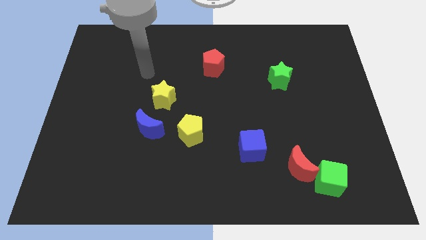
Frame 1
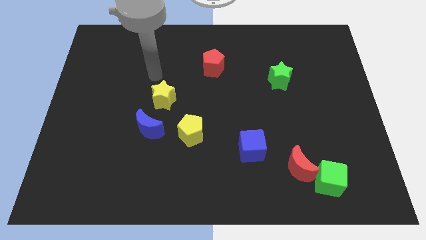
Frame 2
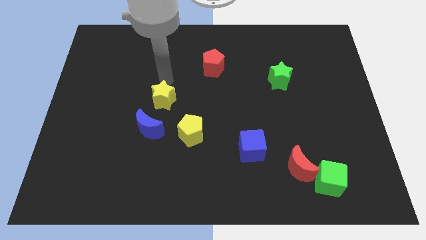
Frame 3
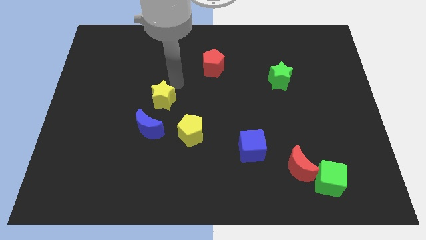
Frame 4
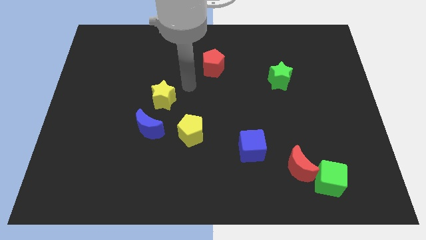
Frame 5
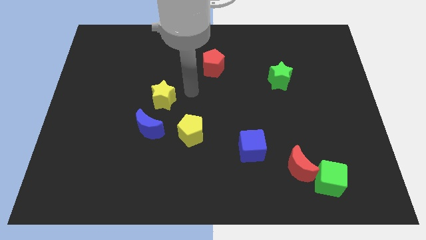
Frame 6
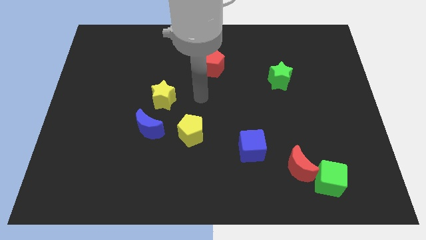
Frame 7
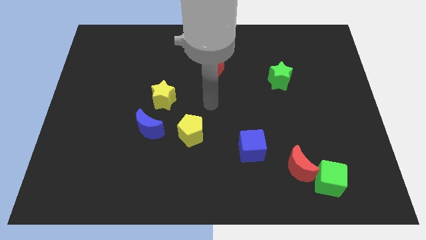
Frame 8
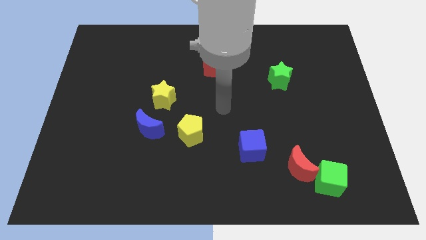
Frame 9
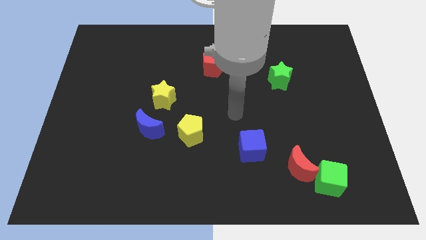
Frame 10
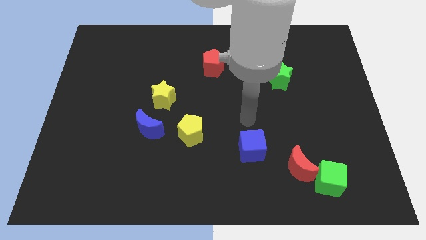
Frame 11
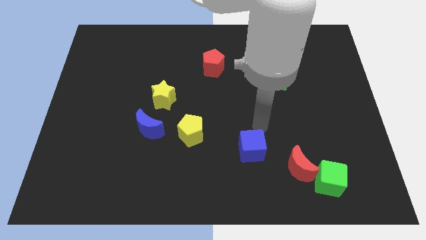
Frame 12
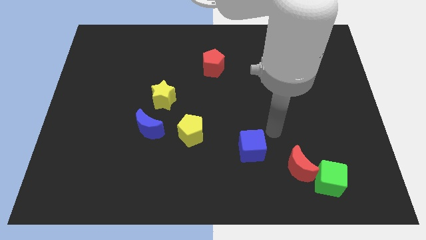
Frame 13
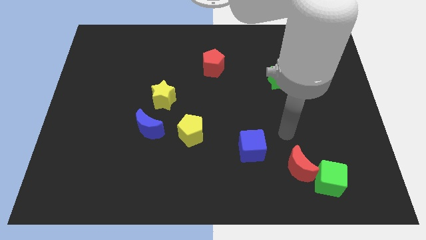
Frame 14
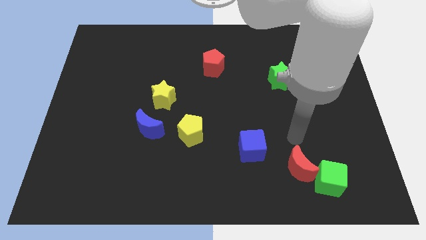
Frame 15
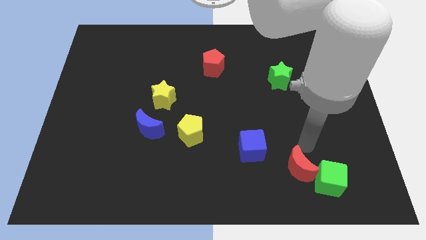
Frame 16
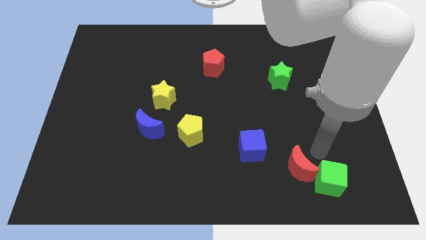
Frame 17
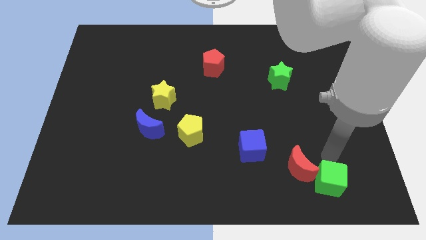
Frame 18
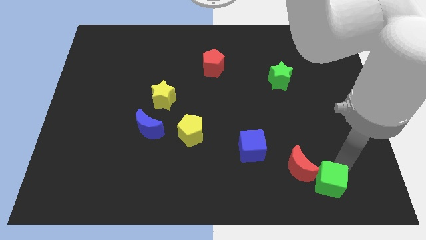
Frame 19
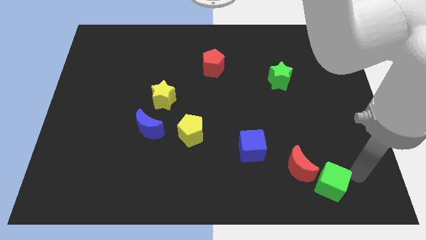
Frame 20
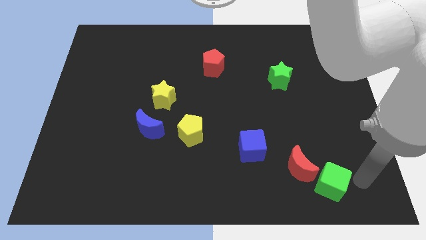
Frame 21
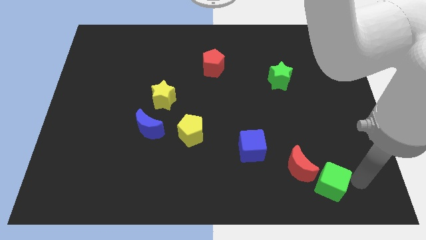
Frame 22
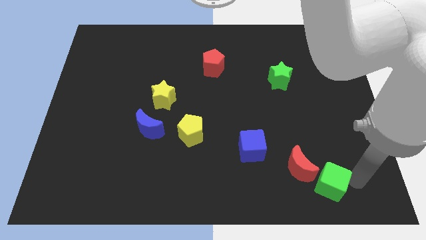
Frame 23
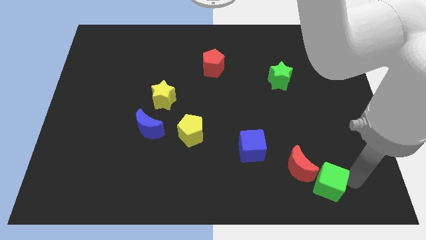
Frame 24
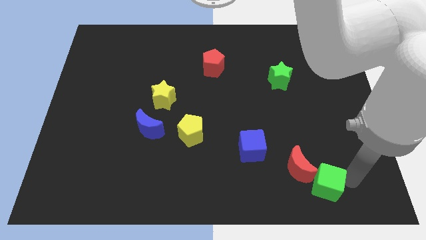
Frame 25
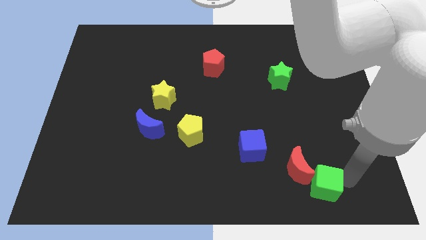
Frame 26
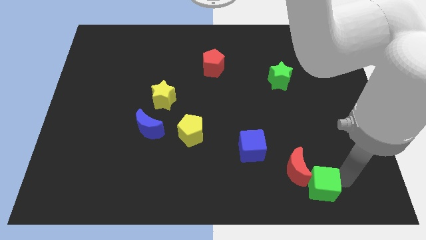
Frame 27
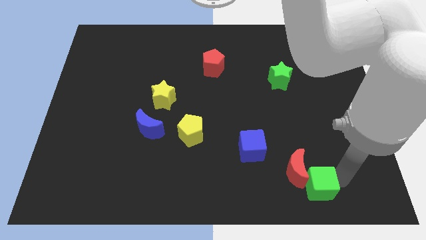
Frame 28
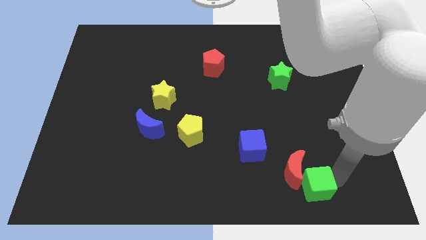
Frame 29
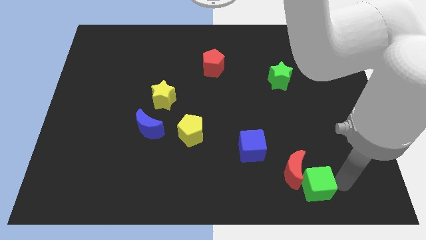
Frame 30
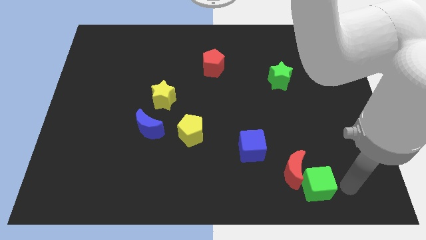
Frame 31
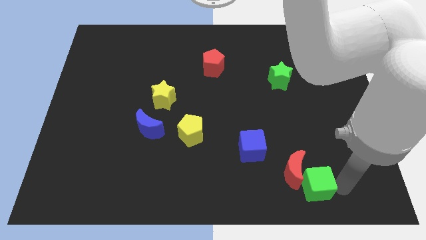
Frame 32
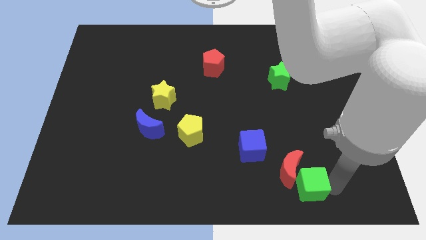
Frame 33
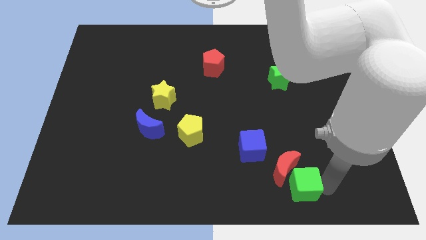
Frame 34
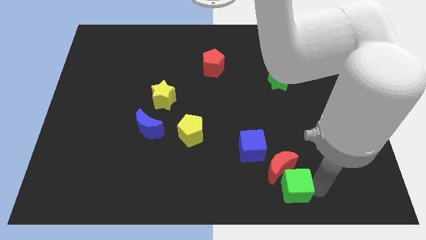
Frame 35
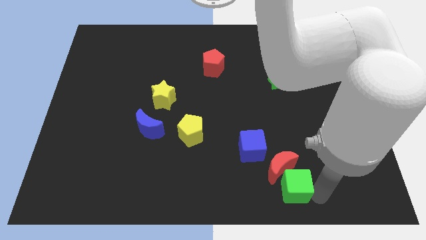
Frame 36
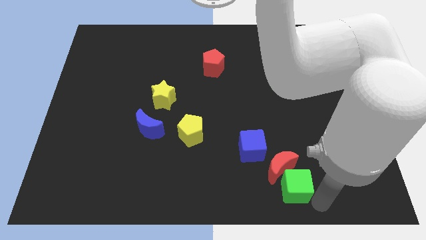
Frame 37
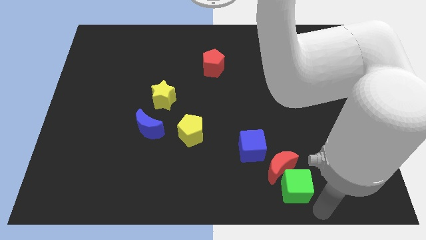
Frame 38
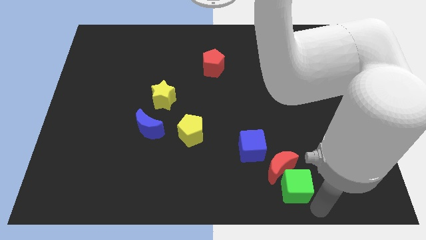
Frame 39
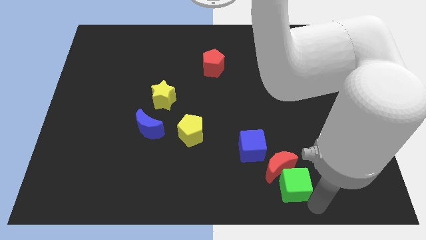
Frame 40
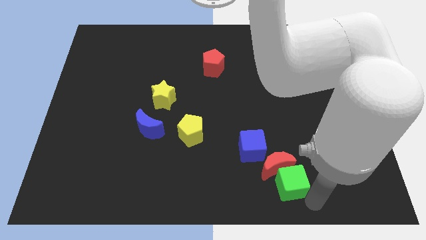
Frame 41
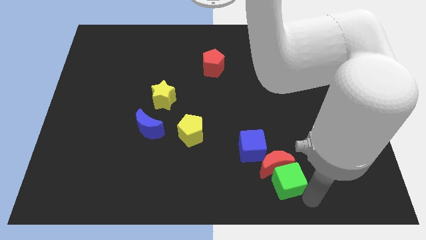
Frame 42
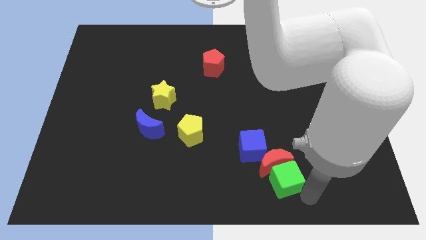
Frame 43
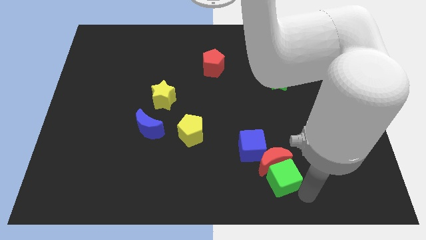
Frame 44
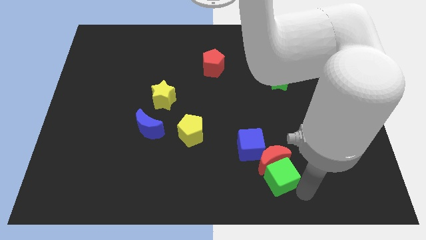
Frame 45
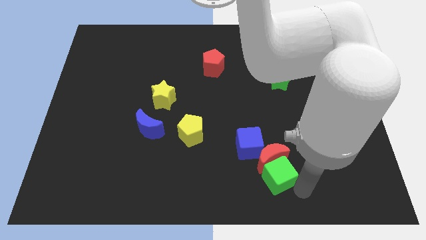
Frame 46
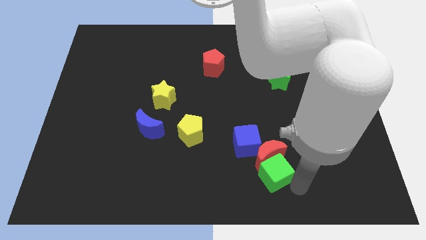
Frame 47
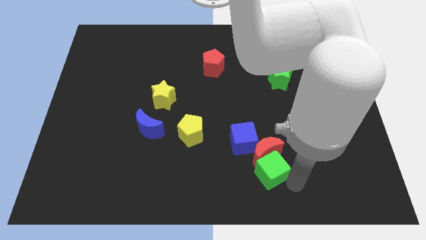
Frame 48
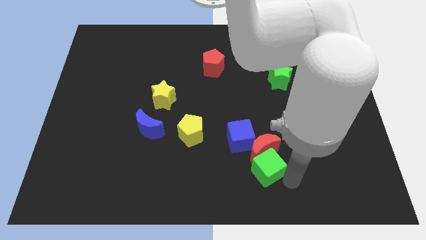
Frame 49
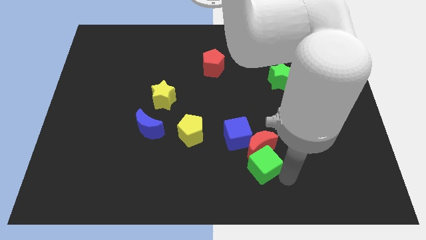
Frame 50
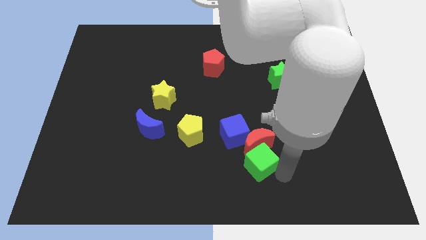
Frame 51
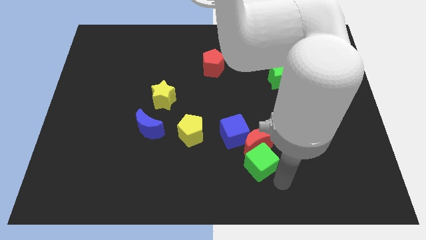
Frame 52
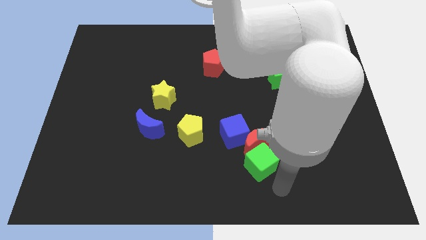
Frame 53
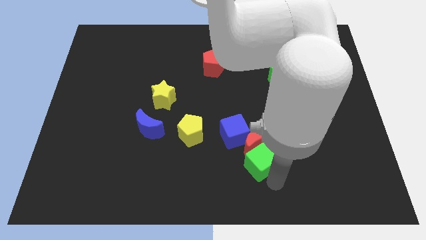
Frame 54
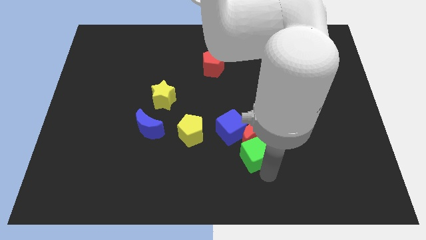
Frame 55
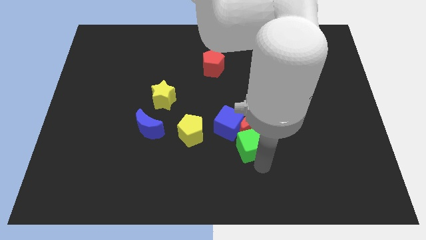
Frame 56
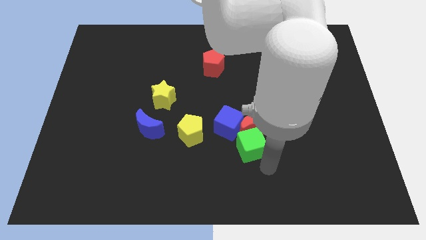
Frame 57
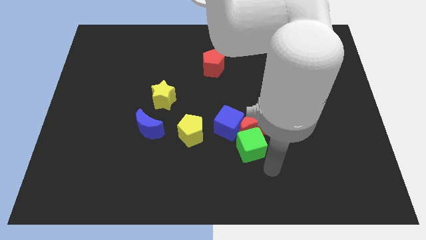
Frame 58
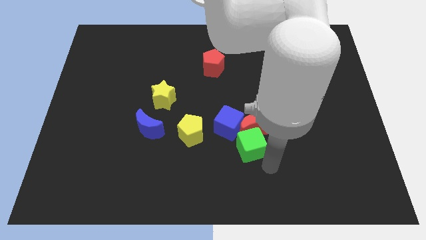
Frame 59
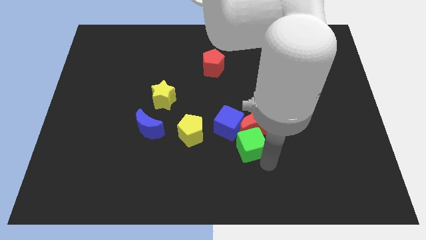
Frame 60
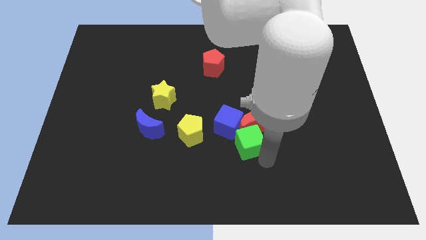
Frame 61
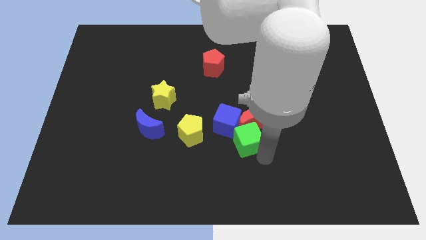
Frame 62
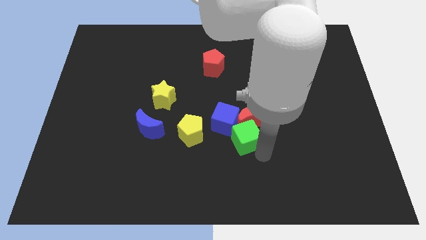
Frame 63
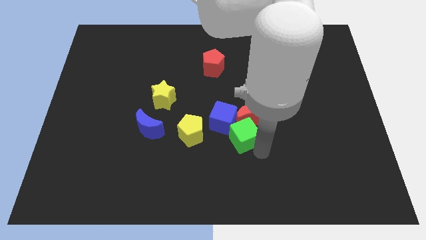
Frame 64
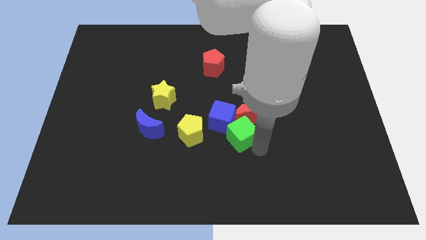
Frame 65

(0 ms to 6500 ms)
push the green cube to the blue cube

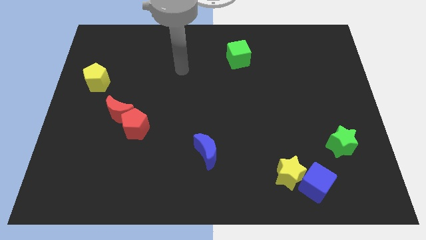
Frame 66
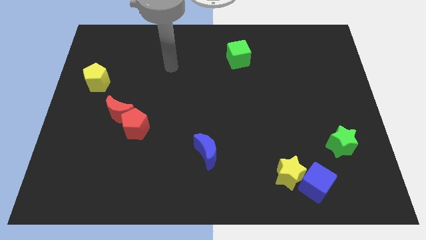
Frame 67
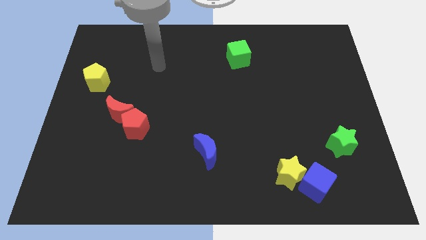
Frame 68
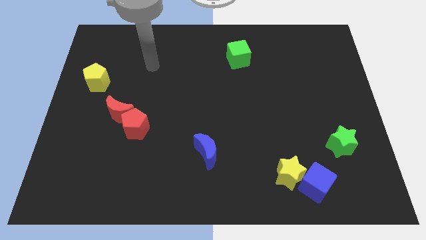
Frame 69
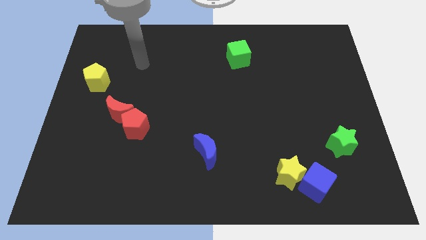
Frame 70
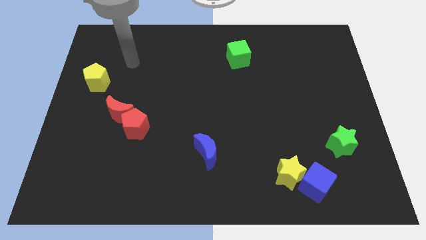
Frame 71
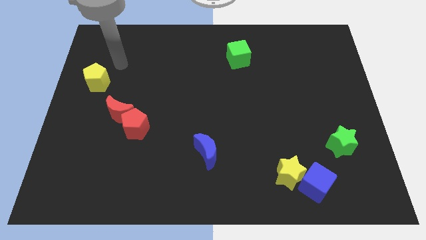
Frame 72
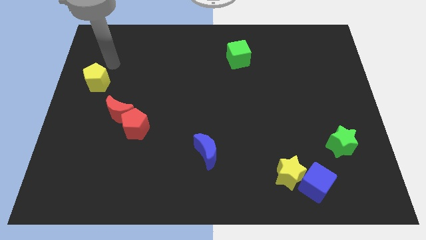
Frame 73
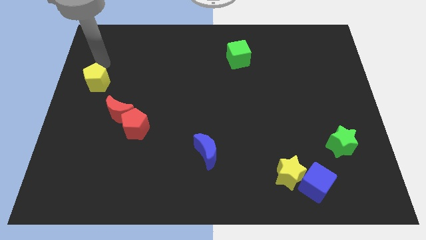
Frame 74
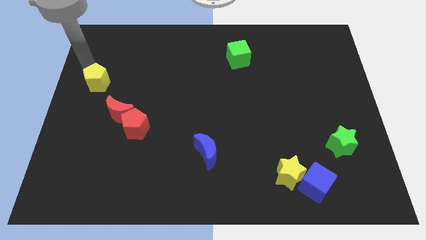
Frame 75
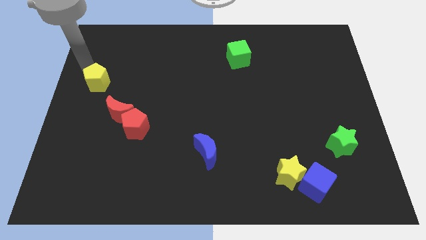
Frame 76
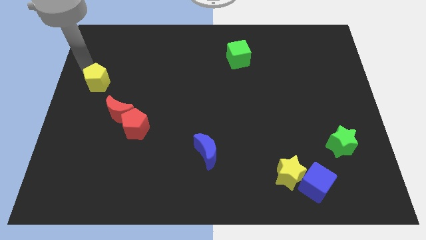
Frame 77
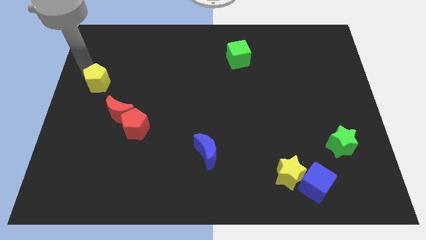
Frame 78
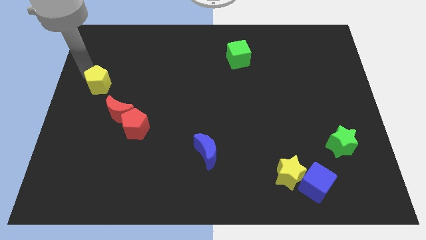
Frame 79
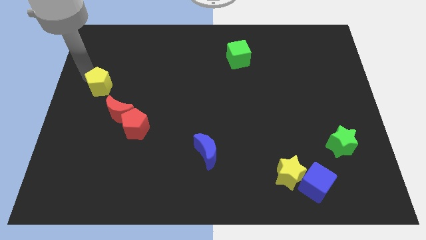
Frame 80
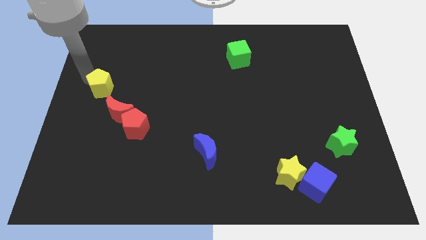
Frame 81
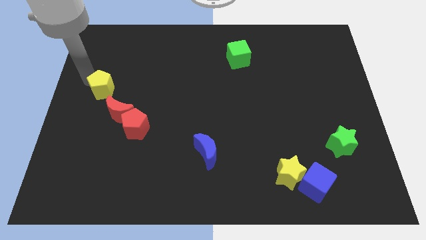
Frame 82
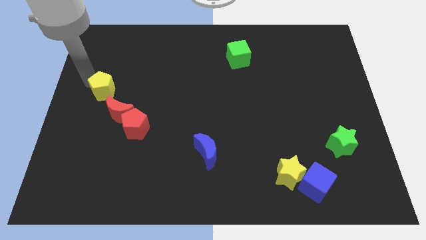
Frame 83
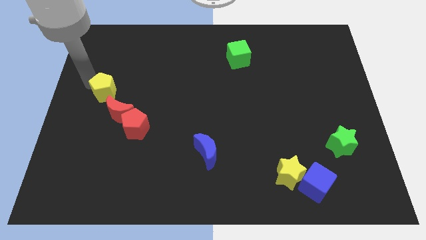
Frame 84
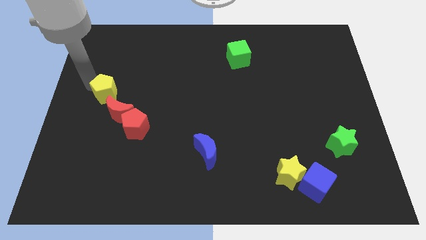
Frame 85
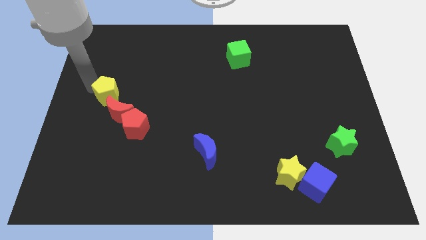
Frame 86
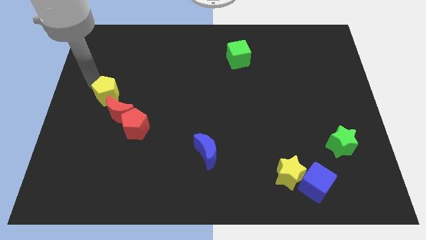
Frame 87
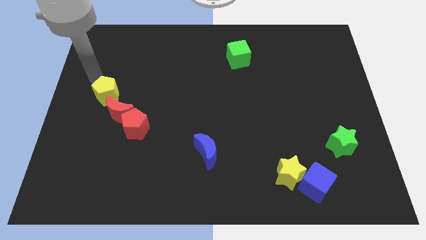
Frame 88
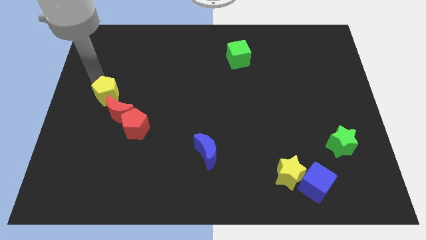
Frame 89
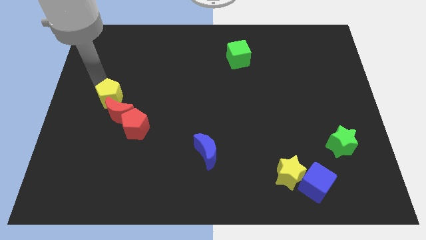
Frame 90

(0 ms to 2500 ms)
move the yellow pentagon towards the red moon
